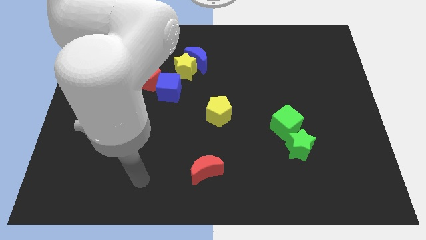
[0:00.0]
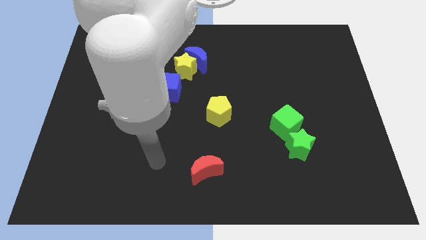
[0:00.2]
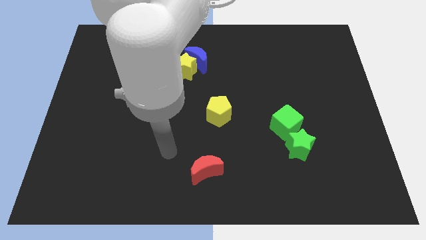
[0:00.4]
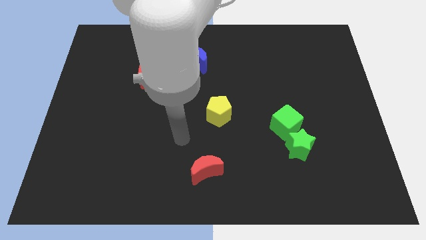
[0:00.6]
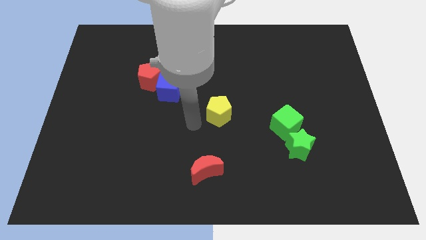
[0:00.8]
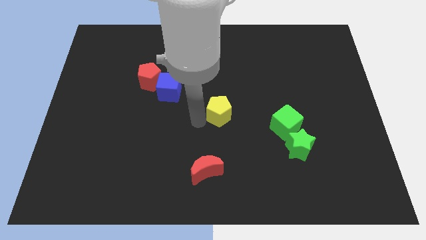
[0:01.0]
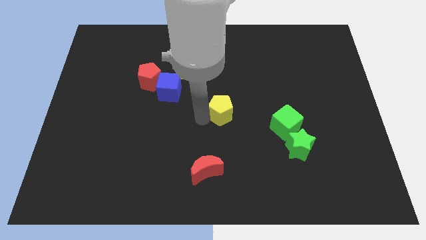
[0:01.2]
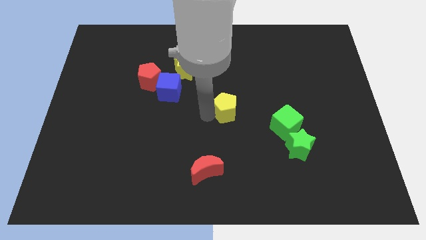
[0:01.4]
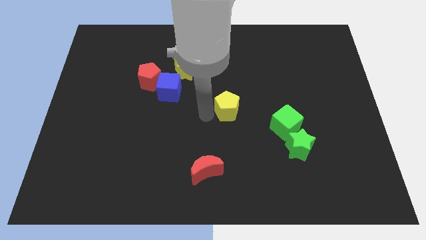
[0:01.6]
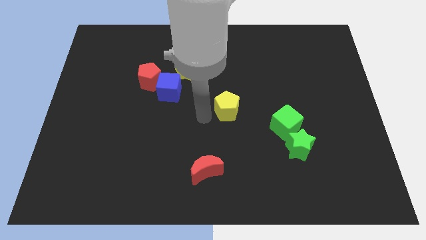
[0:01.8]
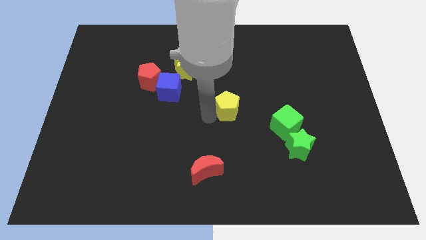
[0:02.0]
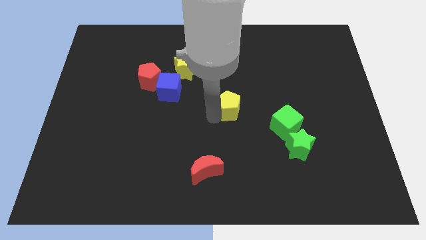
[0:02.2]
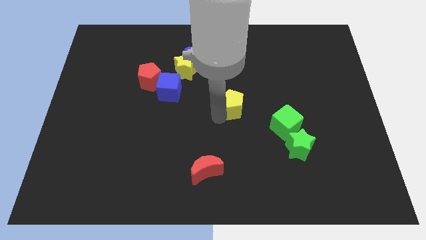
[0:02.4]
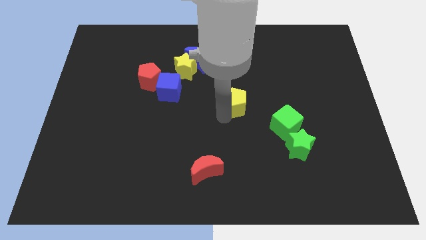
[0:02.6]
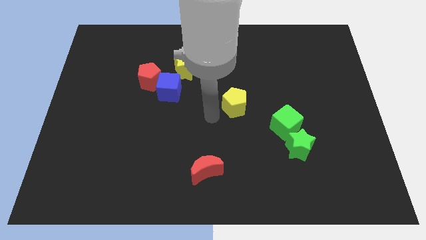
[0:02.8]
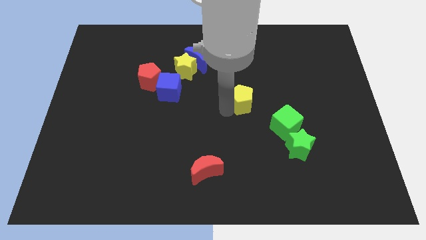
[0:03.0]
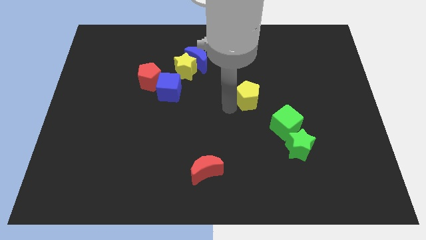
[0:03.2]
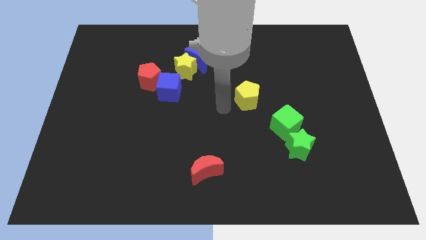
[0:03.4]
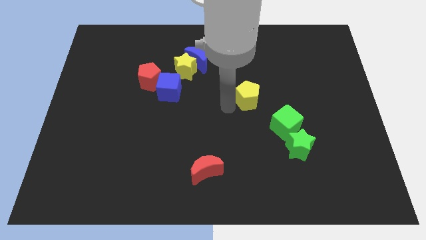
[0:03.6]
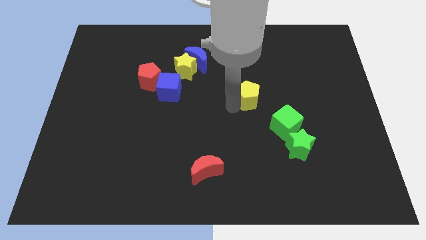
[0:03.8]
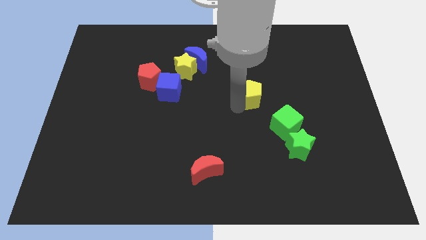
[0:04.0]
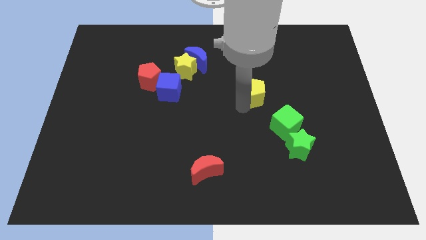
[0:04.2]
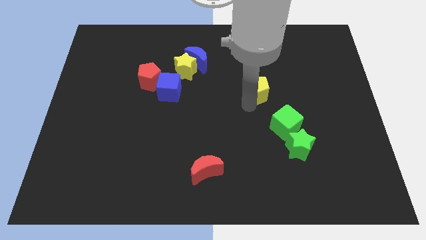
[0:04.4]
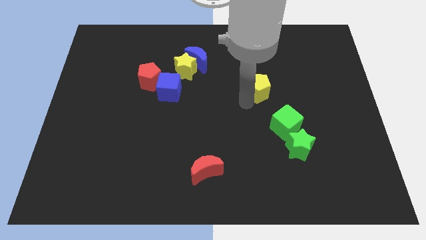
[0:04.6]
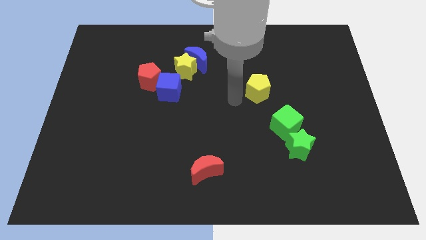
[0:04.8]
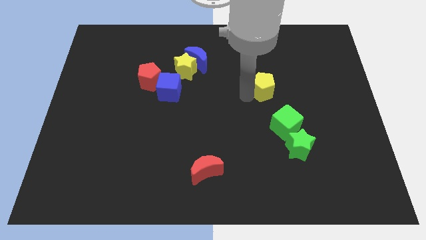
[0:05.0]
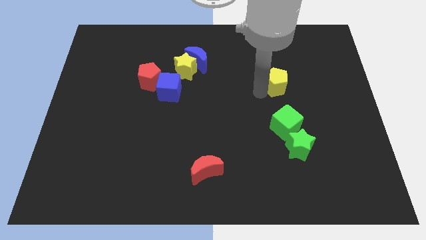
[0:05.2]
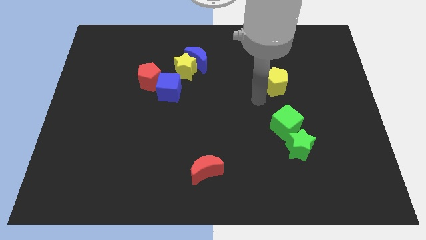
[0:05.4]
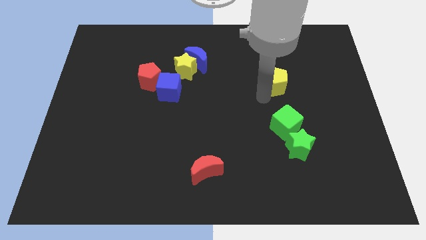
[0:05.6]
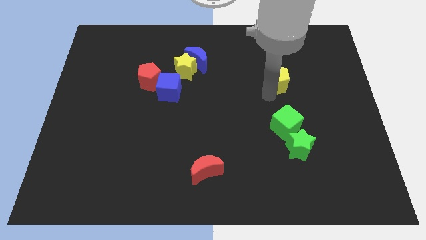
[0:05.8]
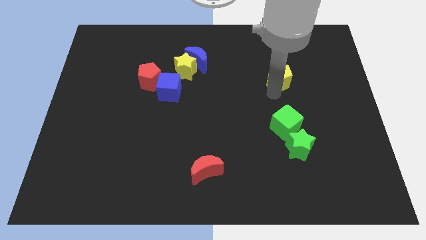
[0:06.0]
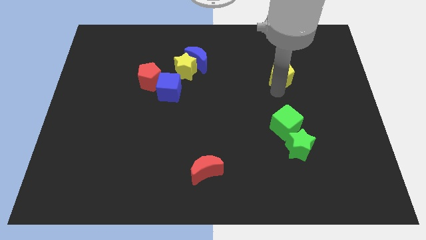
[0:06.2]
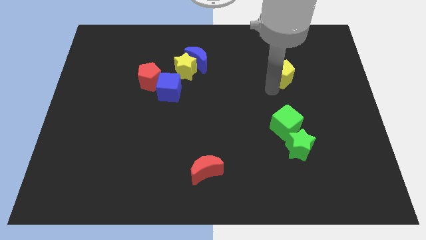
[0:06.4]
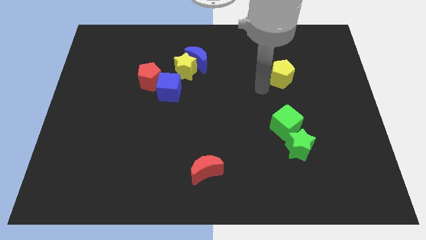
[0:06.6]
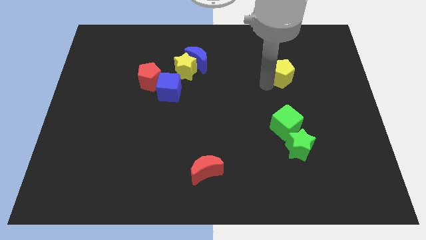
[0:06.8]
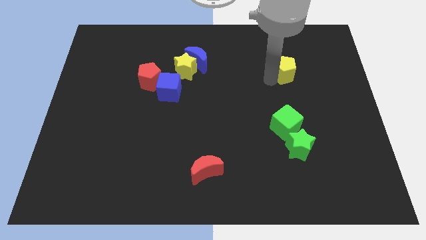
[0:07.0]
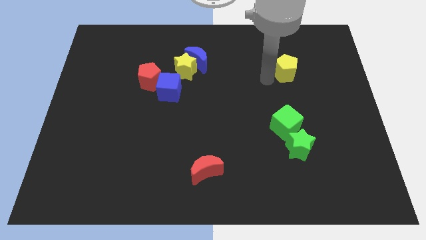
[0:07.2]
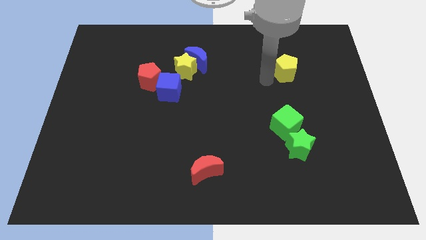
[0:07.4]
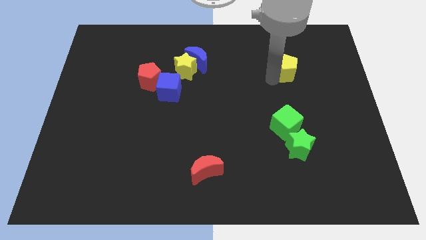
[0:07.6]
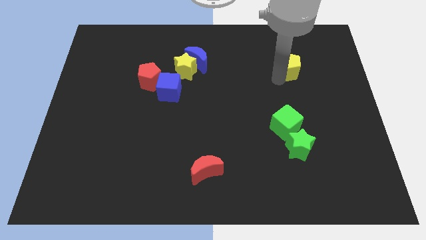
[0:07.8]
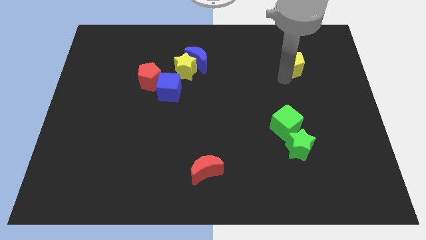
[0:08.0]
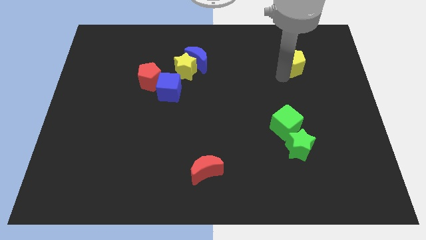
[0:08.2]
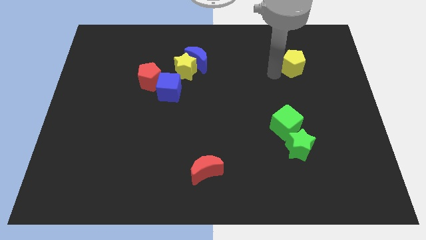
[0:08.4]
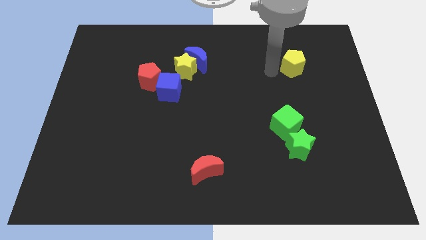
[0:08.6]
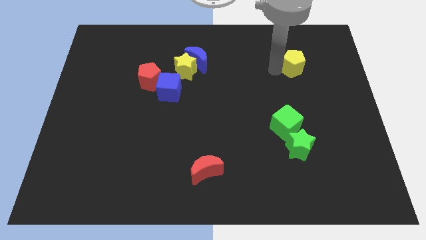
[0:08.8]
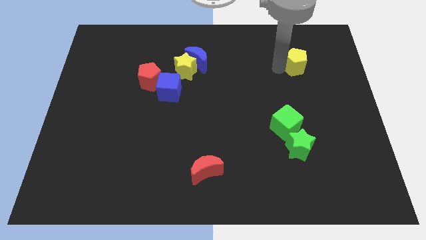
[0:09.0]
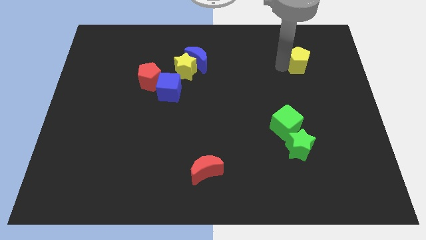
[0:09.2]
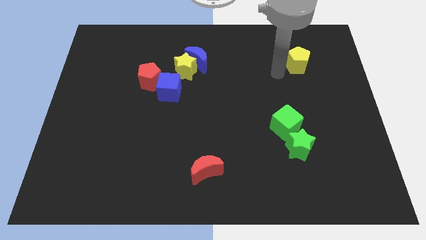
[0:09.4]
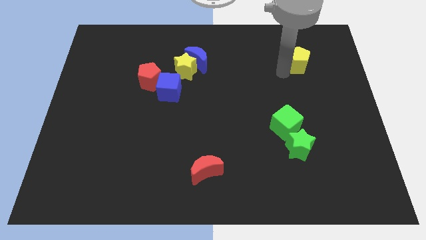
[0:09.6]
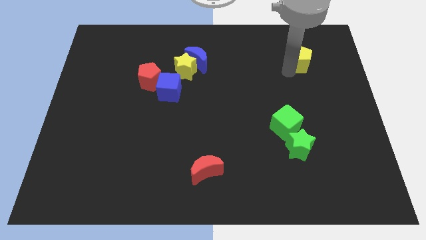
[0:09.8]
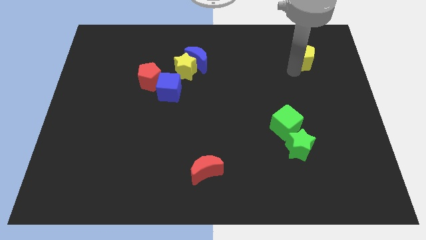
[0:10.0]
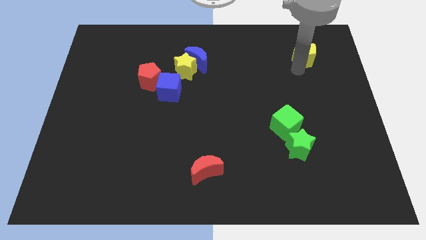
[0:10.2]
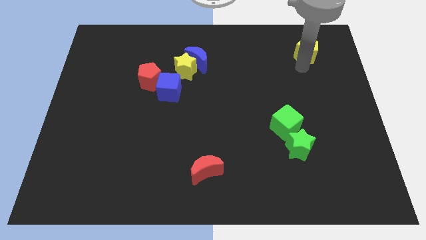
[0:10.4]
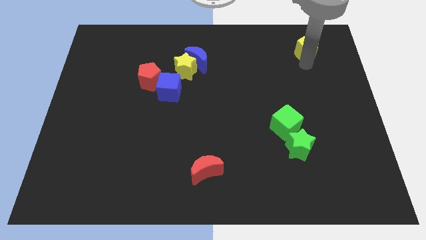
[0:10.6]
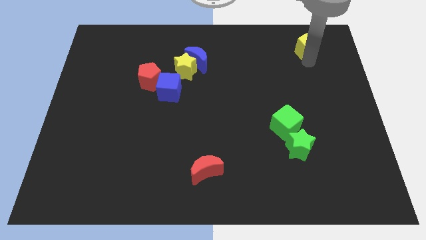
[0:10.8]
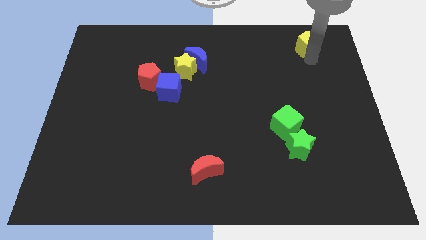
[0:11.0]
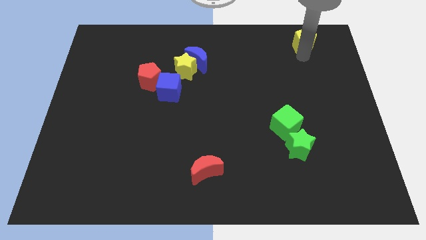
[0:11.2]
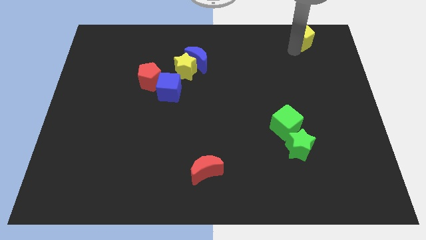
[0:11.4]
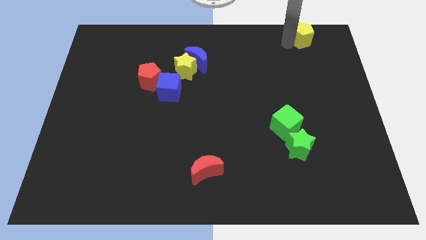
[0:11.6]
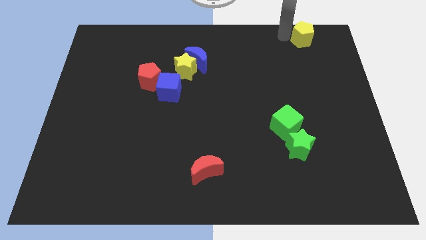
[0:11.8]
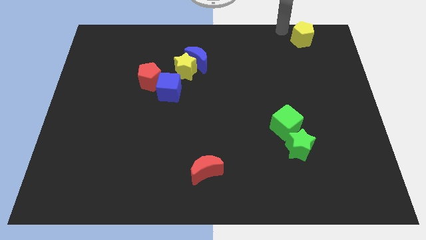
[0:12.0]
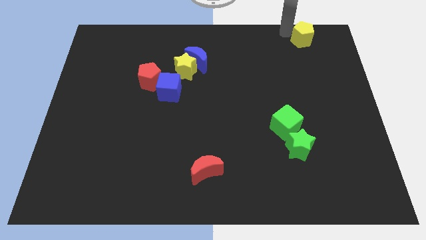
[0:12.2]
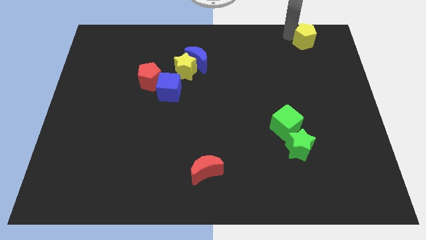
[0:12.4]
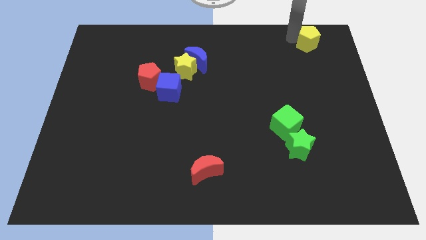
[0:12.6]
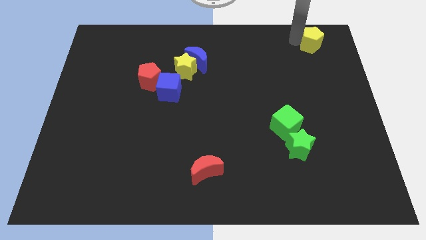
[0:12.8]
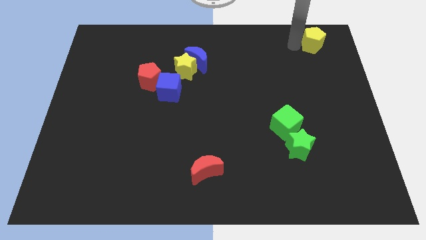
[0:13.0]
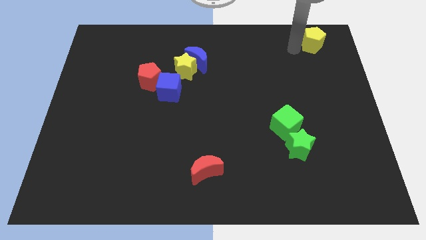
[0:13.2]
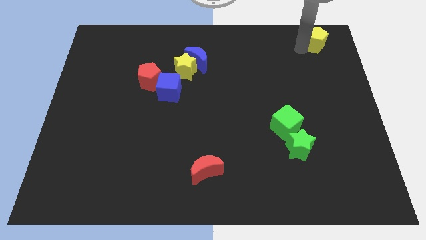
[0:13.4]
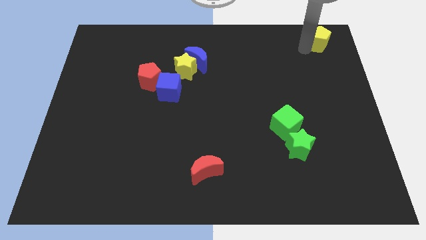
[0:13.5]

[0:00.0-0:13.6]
move the yellow pentagon to the top right

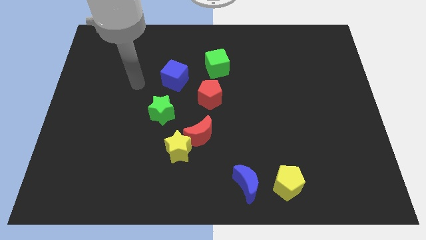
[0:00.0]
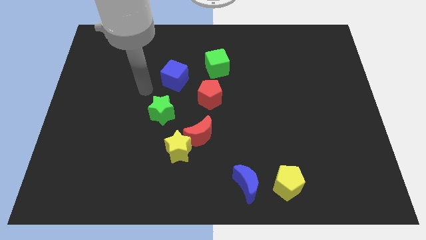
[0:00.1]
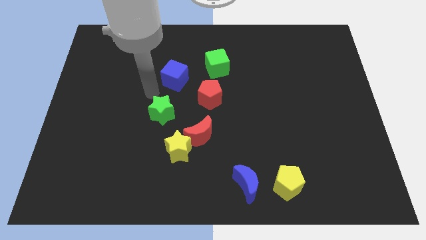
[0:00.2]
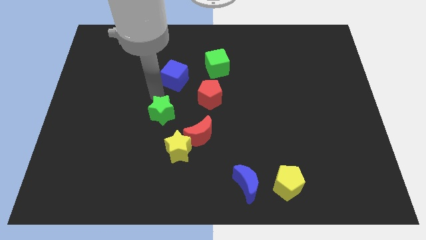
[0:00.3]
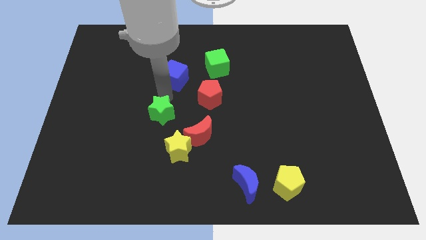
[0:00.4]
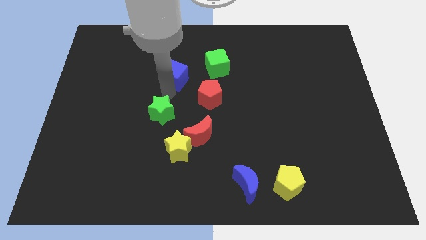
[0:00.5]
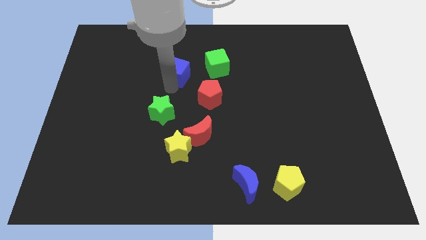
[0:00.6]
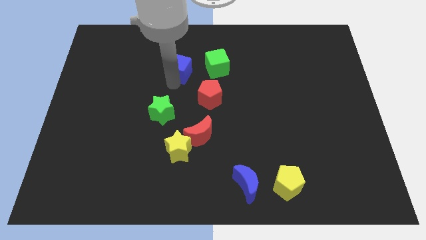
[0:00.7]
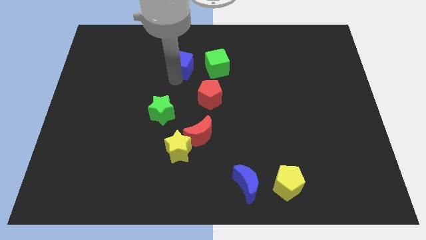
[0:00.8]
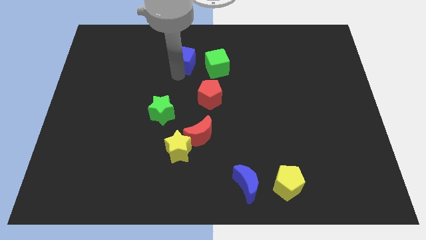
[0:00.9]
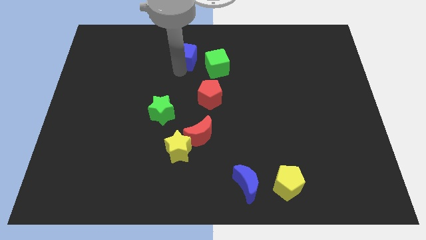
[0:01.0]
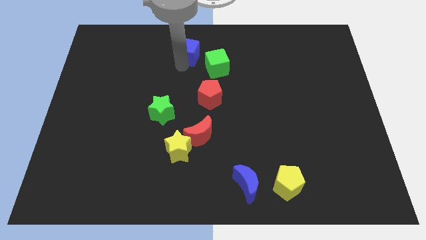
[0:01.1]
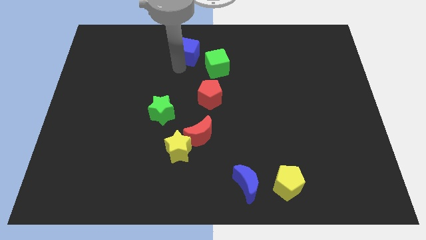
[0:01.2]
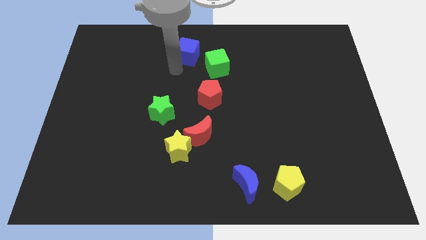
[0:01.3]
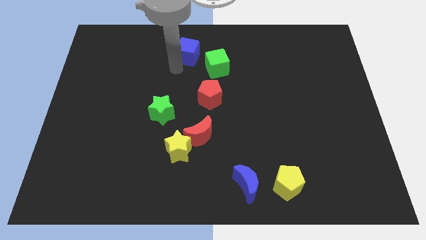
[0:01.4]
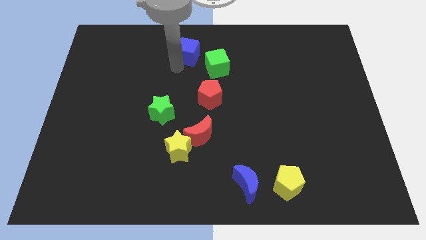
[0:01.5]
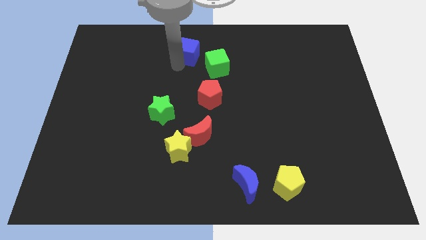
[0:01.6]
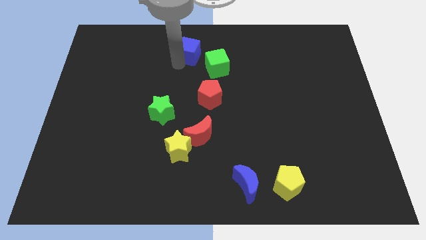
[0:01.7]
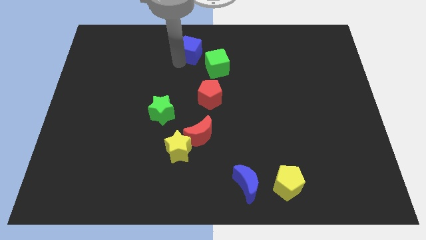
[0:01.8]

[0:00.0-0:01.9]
push the blue cube to the towards your base
